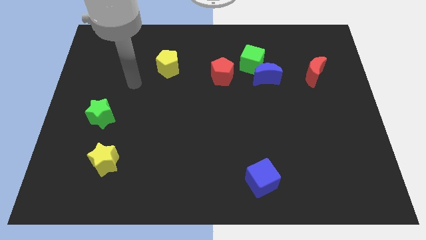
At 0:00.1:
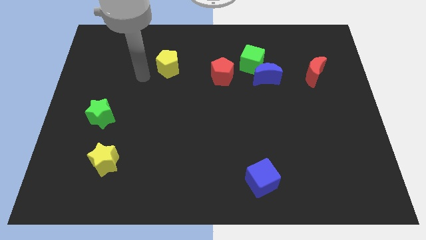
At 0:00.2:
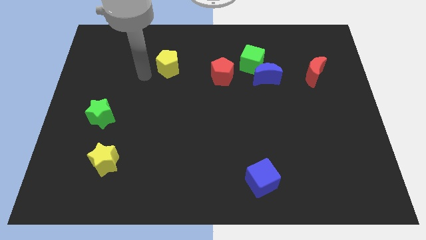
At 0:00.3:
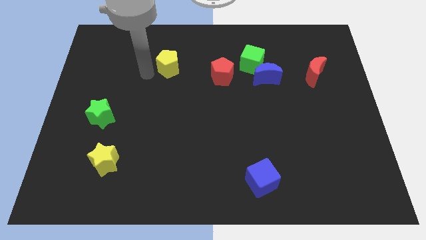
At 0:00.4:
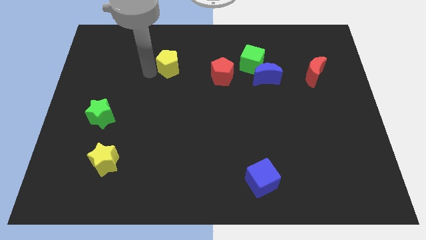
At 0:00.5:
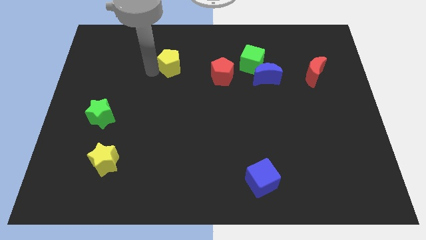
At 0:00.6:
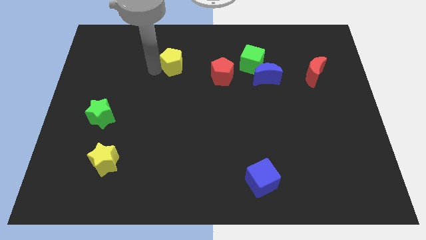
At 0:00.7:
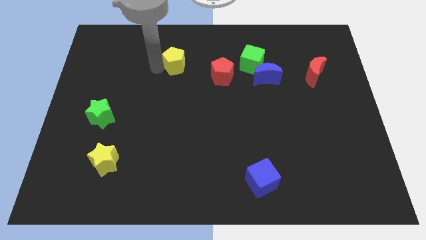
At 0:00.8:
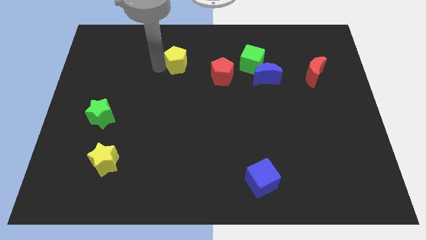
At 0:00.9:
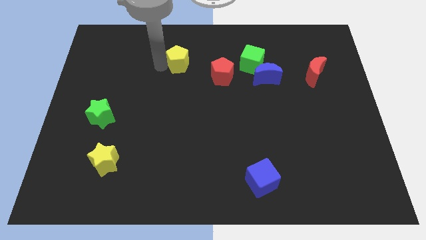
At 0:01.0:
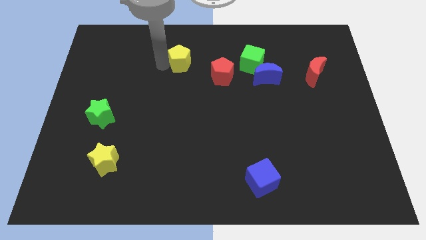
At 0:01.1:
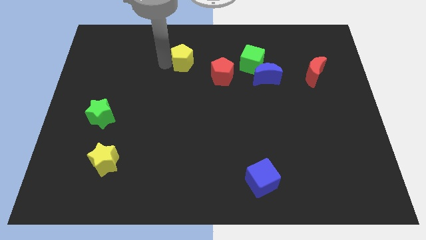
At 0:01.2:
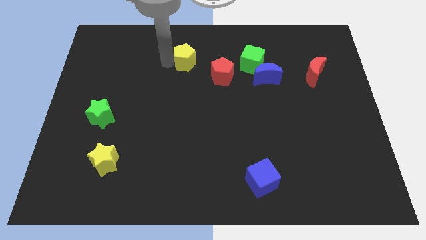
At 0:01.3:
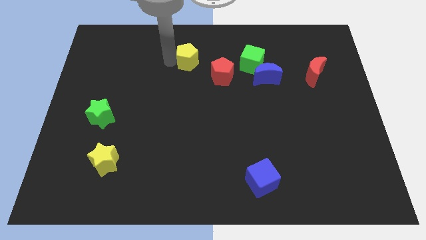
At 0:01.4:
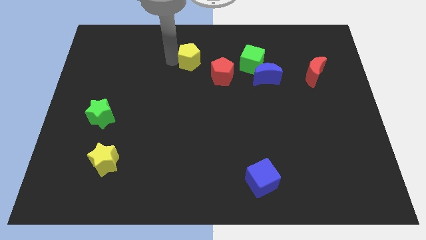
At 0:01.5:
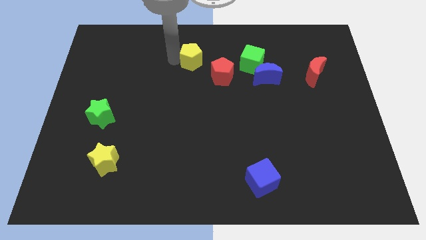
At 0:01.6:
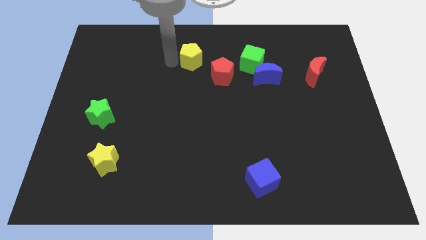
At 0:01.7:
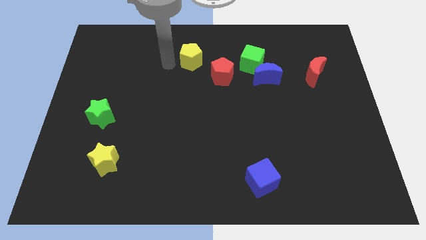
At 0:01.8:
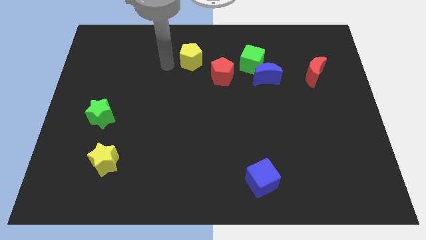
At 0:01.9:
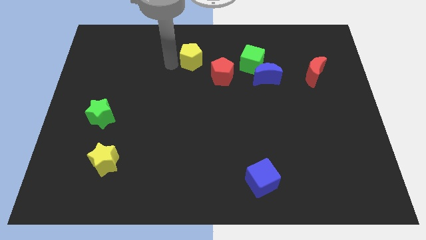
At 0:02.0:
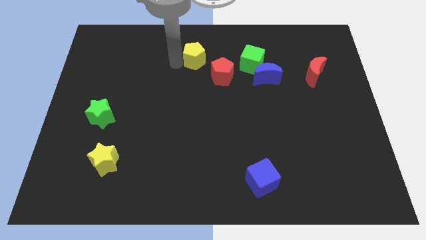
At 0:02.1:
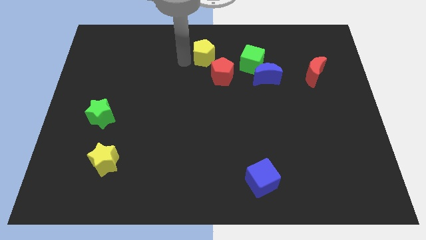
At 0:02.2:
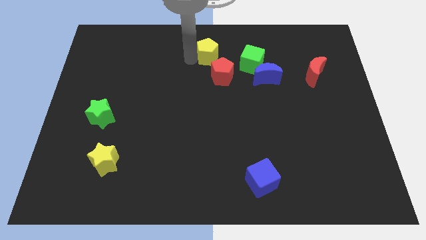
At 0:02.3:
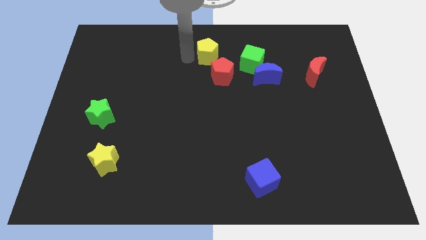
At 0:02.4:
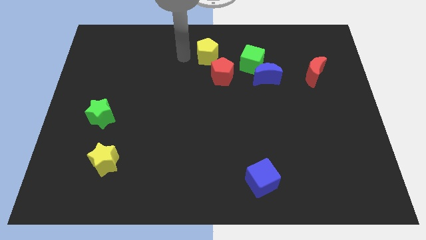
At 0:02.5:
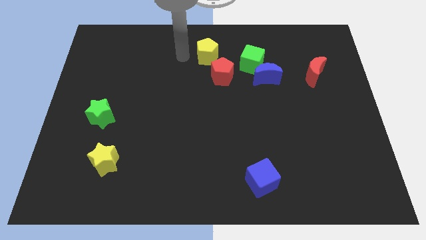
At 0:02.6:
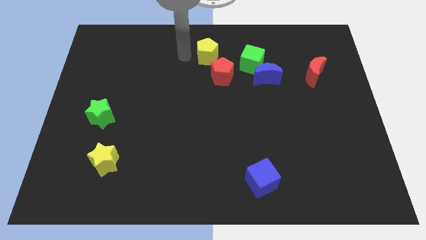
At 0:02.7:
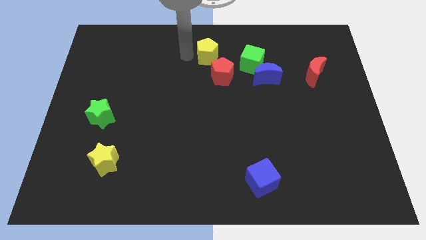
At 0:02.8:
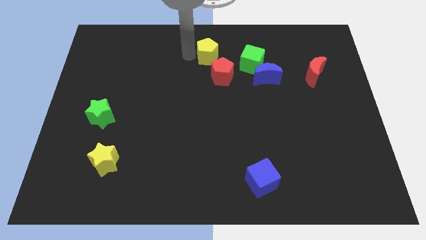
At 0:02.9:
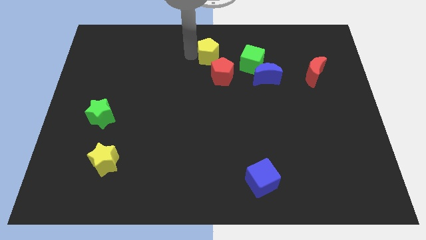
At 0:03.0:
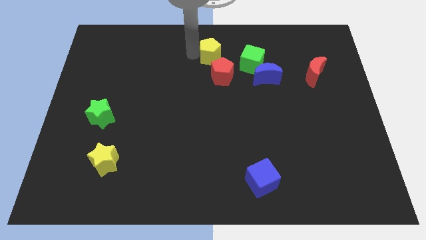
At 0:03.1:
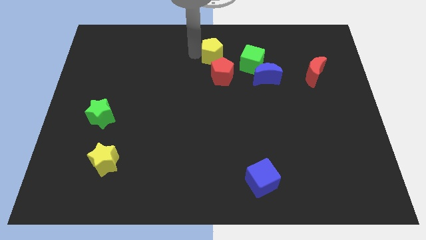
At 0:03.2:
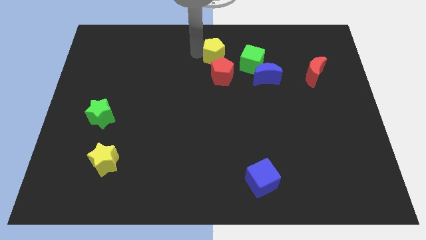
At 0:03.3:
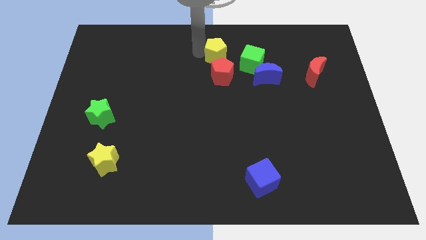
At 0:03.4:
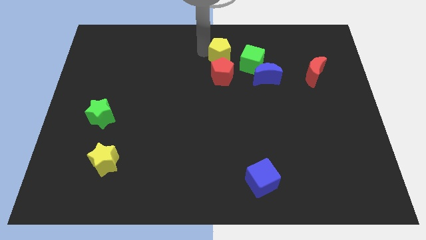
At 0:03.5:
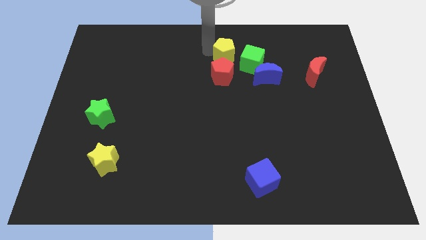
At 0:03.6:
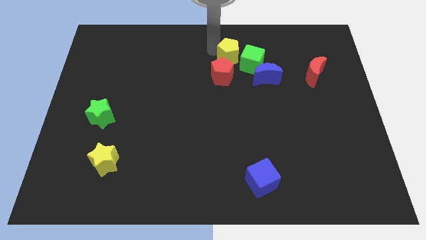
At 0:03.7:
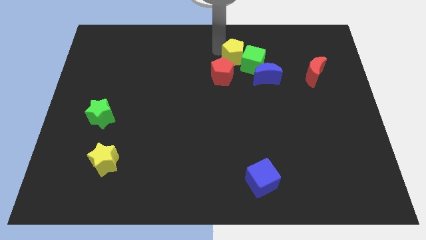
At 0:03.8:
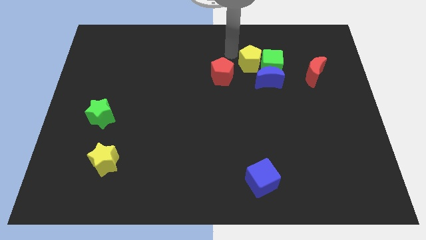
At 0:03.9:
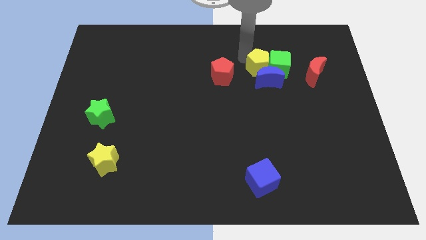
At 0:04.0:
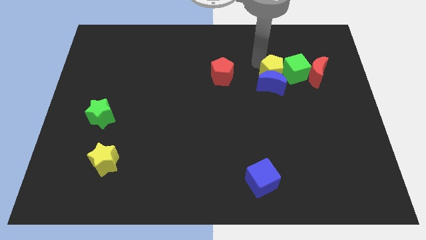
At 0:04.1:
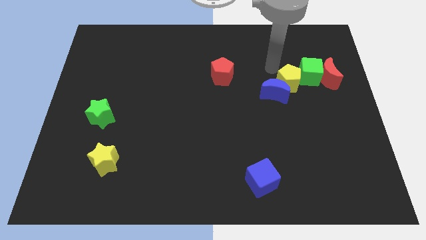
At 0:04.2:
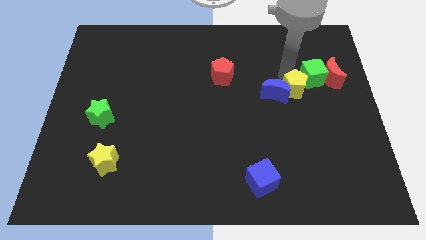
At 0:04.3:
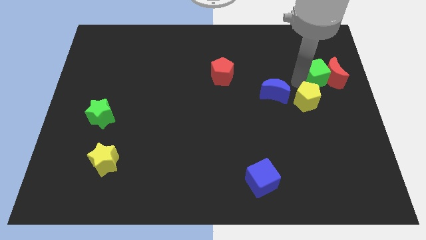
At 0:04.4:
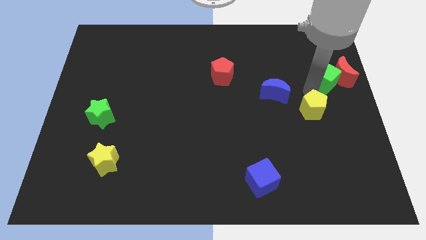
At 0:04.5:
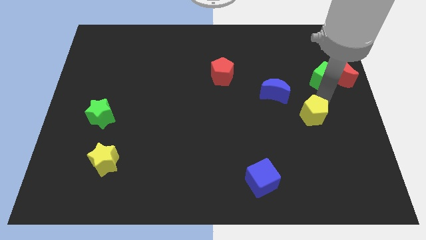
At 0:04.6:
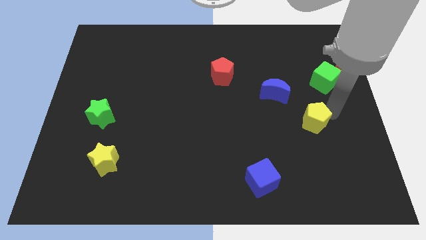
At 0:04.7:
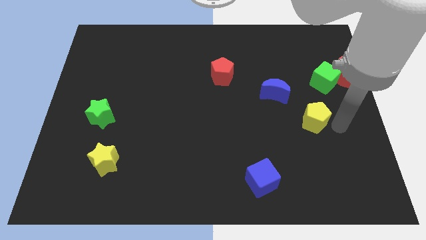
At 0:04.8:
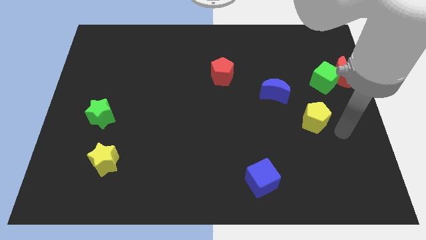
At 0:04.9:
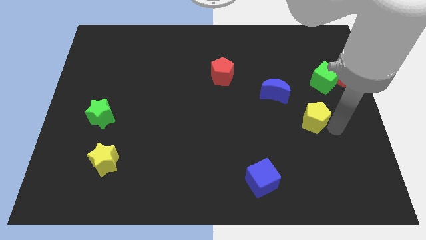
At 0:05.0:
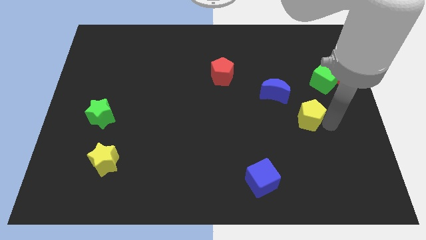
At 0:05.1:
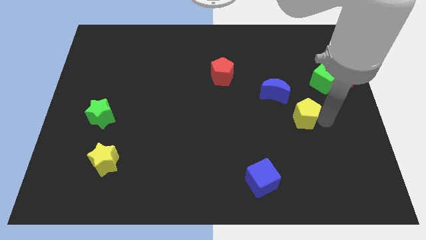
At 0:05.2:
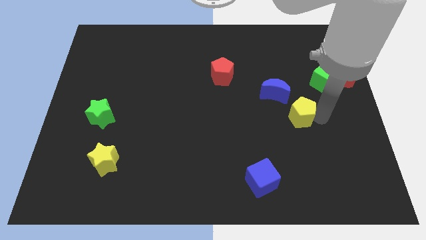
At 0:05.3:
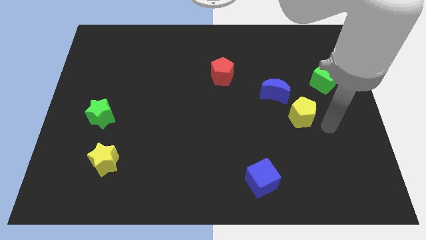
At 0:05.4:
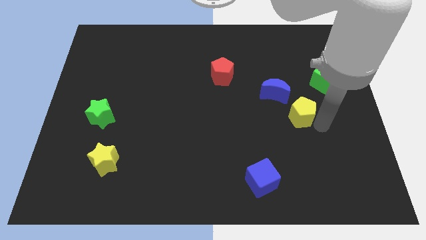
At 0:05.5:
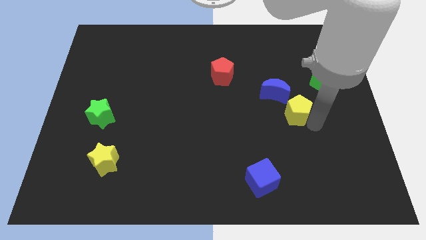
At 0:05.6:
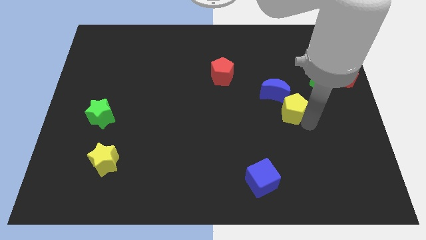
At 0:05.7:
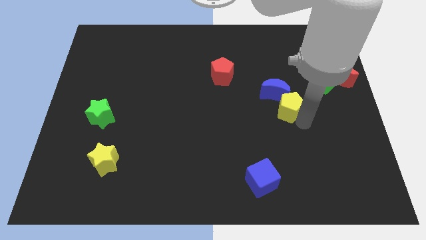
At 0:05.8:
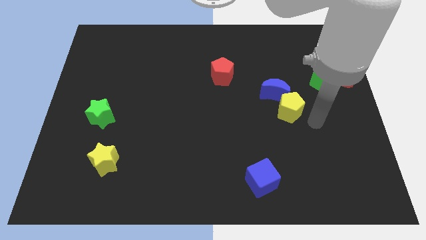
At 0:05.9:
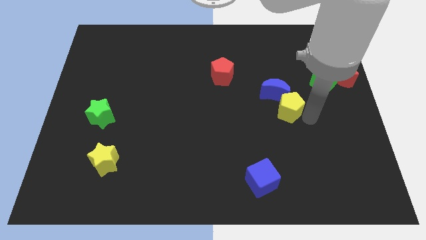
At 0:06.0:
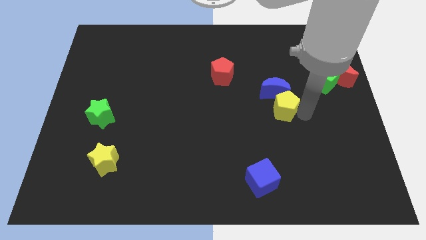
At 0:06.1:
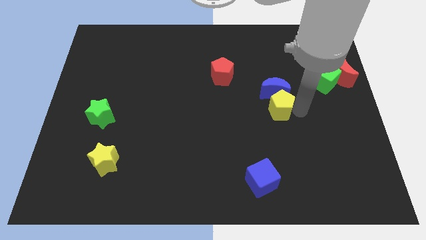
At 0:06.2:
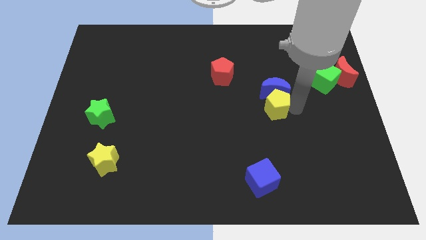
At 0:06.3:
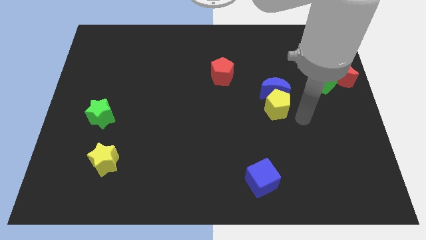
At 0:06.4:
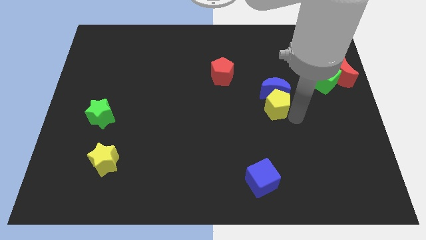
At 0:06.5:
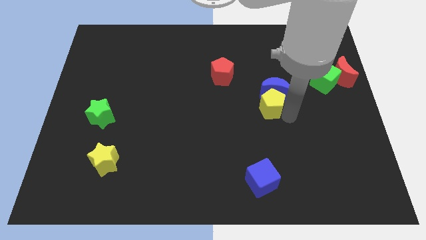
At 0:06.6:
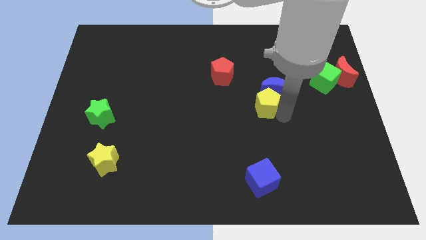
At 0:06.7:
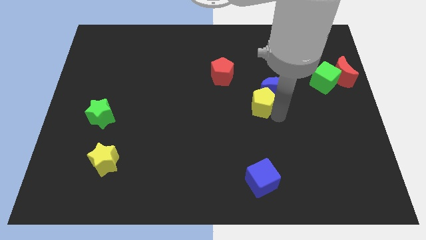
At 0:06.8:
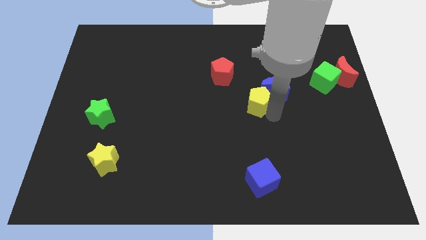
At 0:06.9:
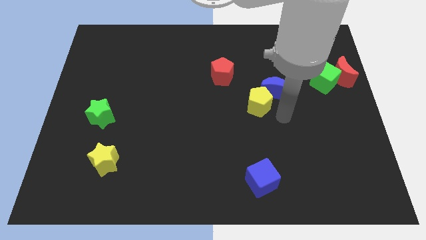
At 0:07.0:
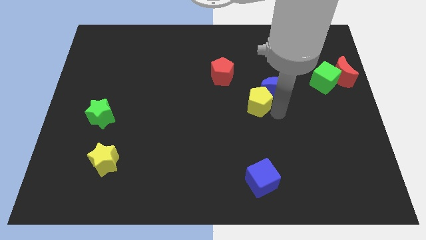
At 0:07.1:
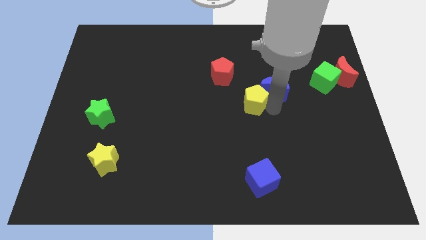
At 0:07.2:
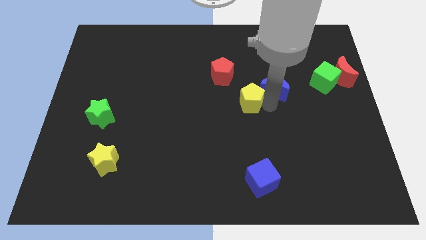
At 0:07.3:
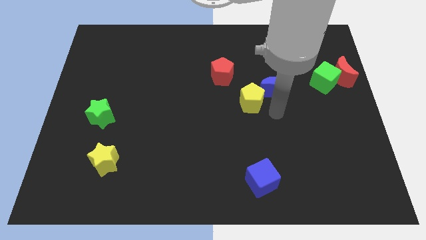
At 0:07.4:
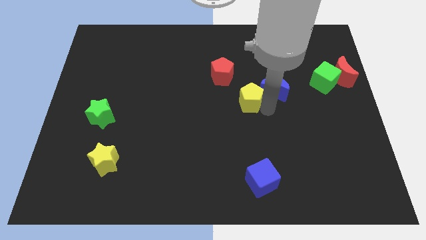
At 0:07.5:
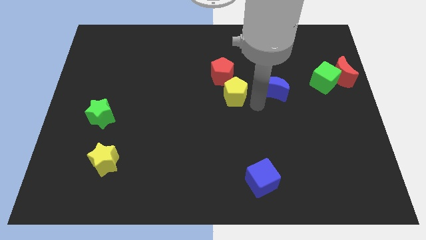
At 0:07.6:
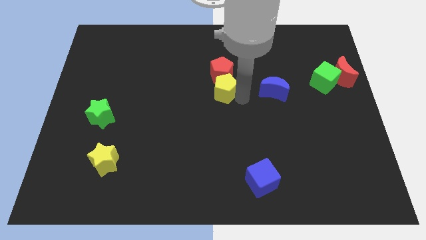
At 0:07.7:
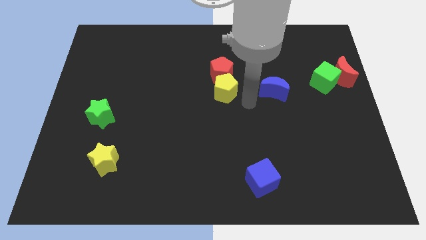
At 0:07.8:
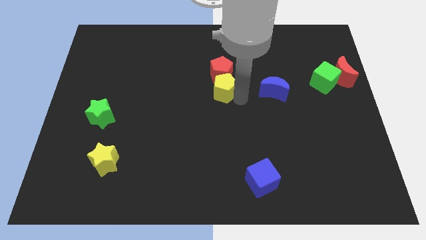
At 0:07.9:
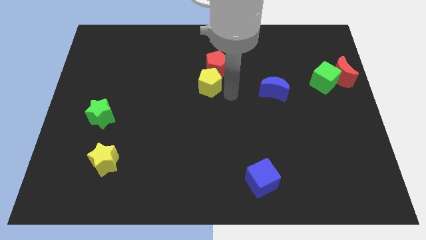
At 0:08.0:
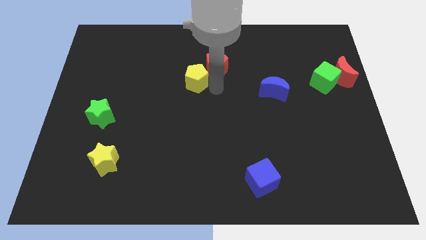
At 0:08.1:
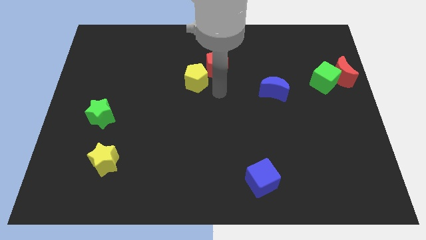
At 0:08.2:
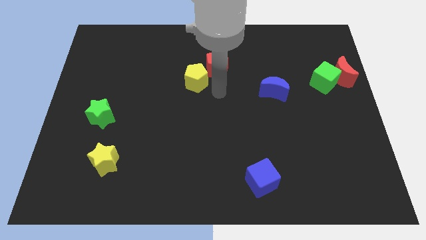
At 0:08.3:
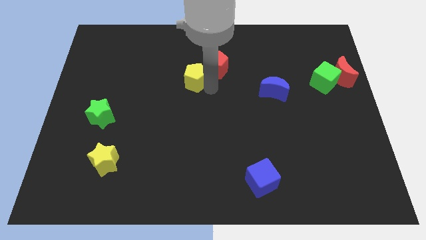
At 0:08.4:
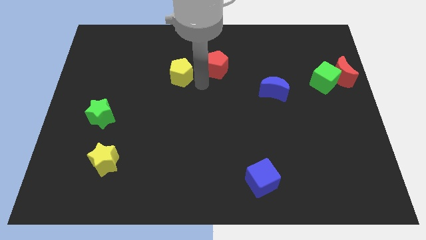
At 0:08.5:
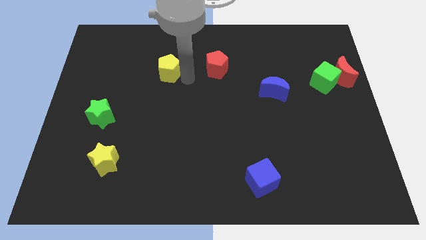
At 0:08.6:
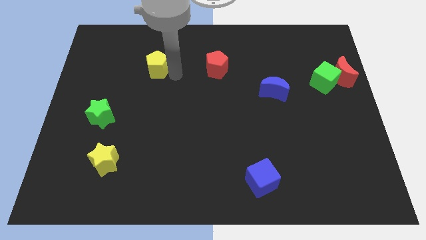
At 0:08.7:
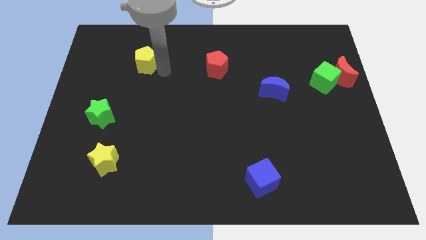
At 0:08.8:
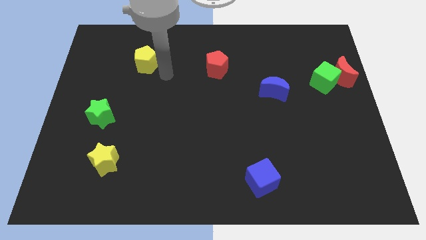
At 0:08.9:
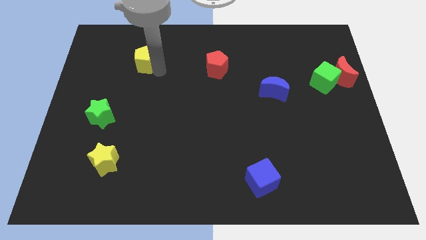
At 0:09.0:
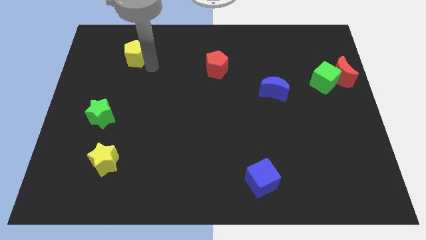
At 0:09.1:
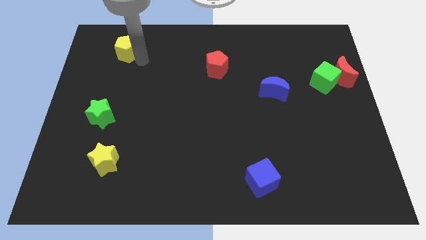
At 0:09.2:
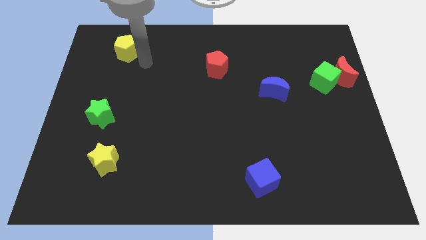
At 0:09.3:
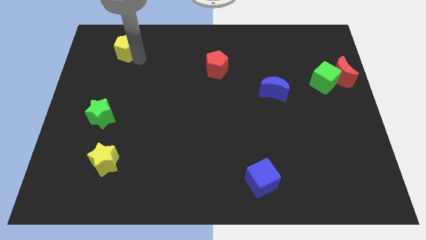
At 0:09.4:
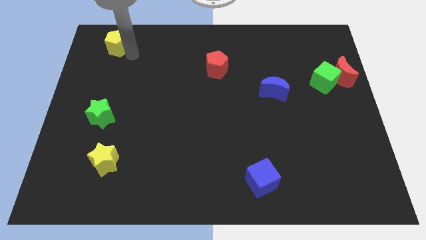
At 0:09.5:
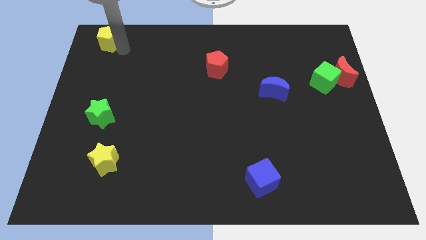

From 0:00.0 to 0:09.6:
push the yellow pentagon to the top left of the board
